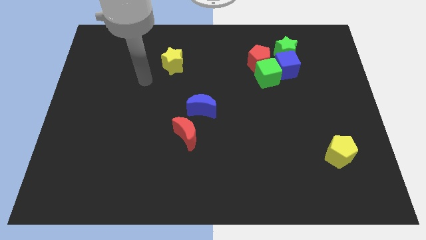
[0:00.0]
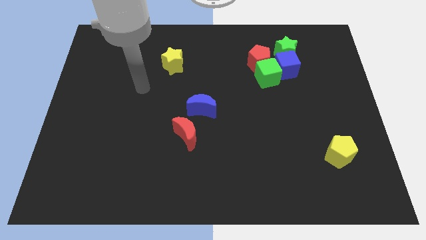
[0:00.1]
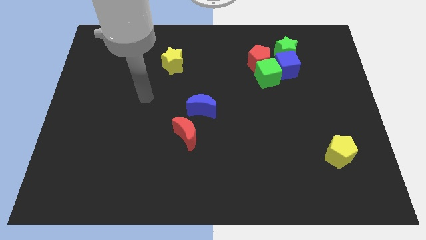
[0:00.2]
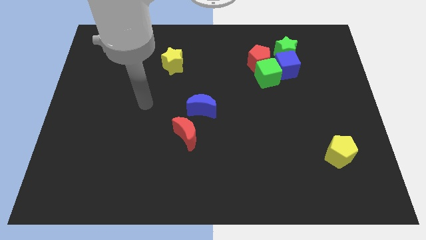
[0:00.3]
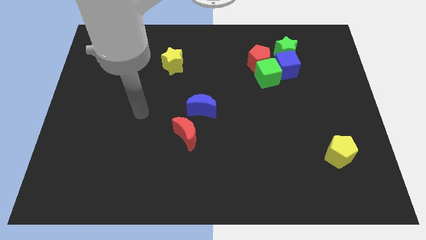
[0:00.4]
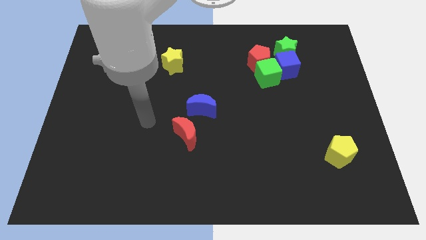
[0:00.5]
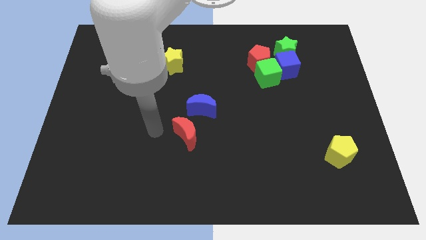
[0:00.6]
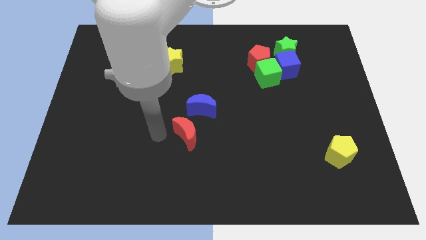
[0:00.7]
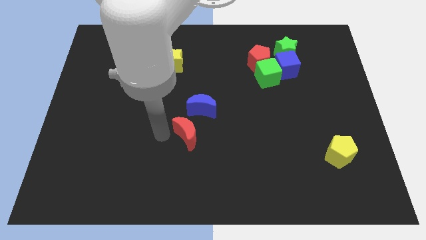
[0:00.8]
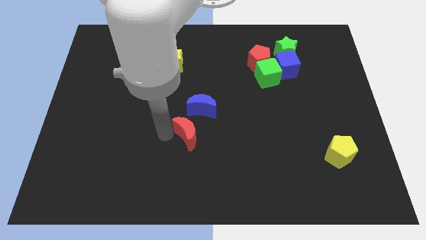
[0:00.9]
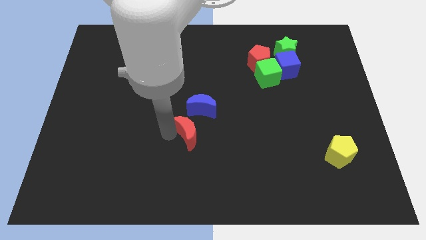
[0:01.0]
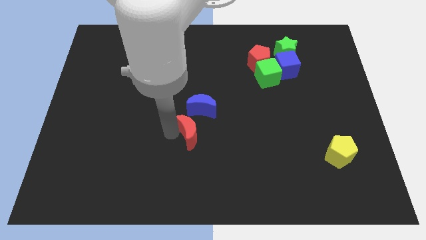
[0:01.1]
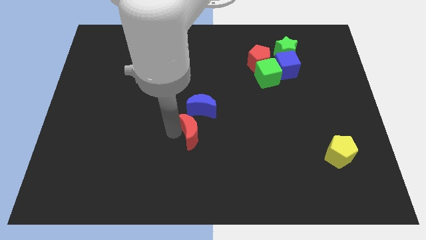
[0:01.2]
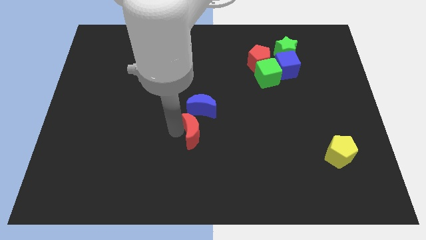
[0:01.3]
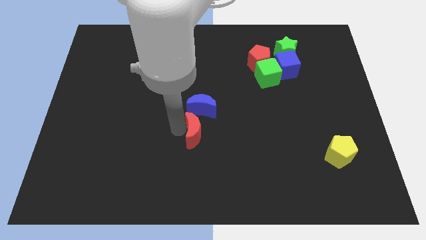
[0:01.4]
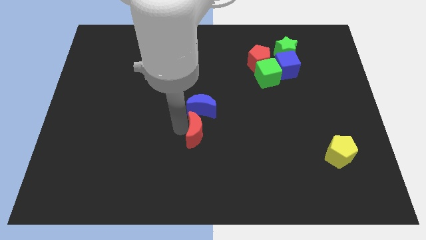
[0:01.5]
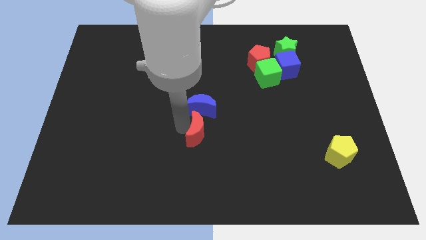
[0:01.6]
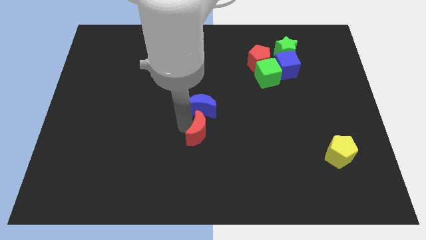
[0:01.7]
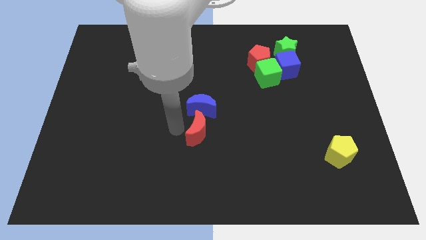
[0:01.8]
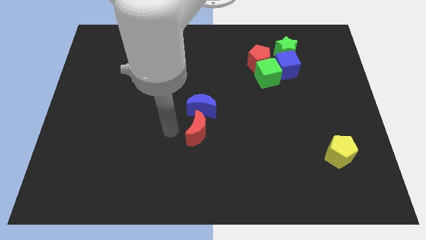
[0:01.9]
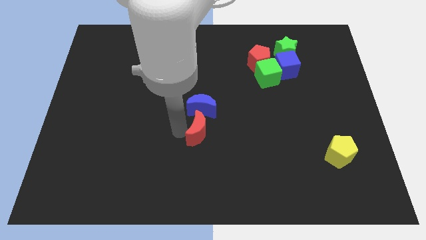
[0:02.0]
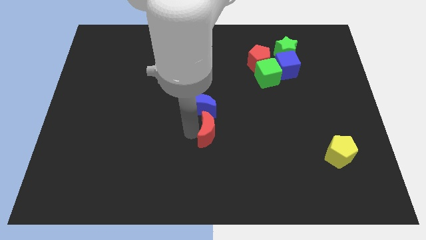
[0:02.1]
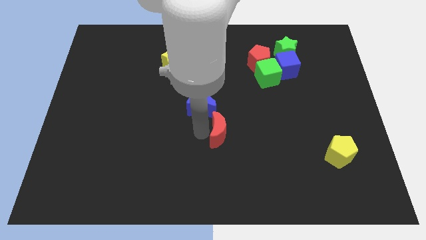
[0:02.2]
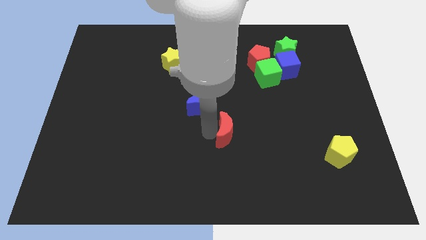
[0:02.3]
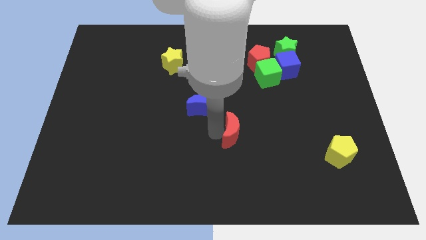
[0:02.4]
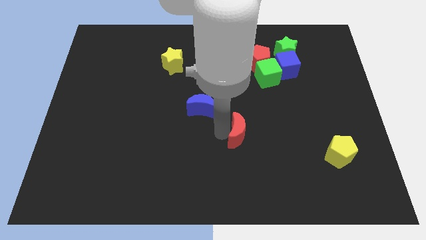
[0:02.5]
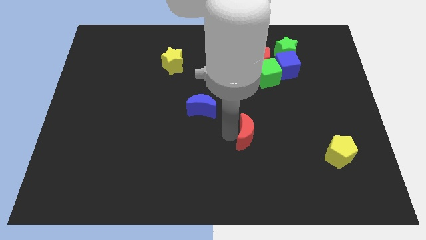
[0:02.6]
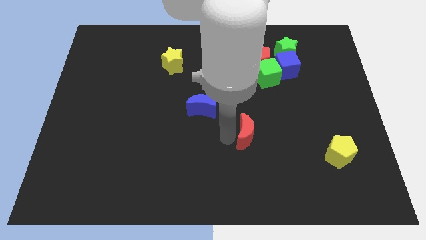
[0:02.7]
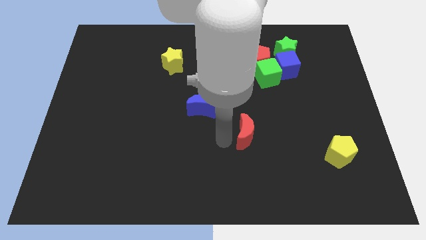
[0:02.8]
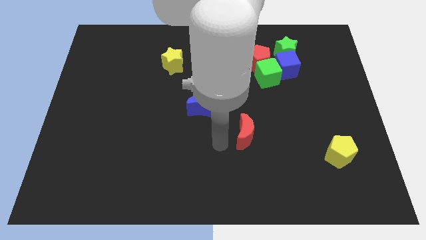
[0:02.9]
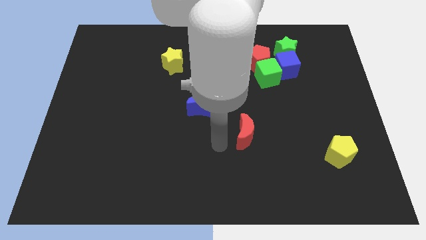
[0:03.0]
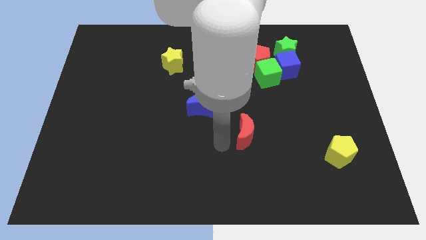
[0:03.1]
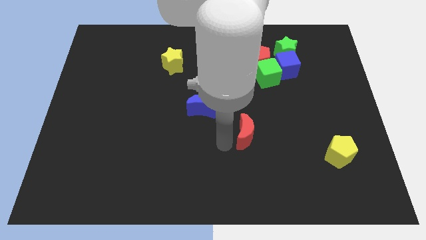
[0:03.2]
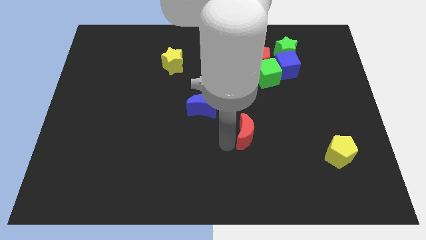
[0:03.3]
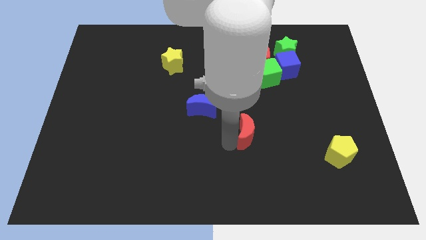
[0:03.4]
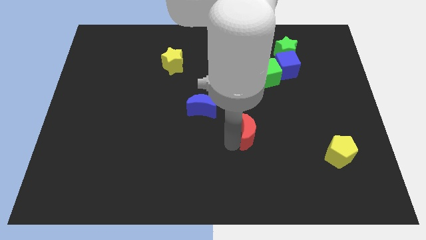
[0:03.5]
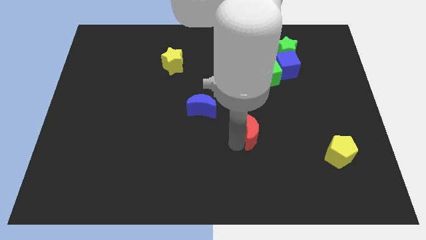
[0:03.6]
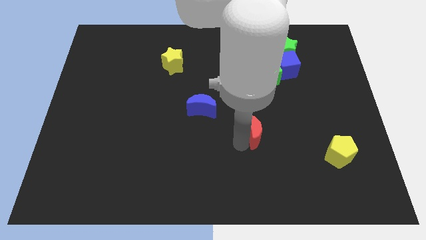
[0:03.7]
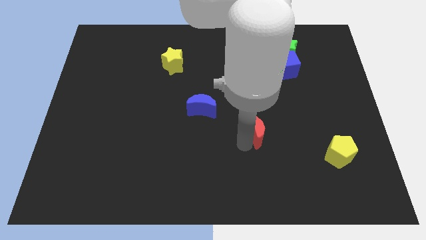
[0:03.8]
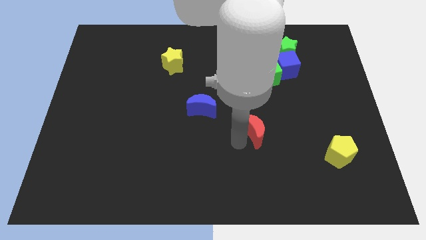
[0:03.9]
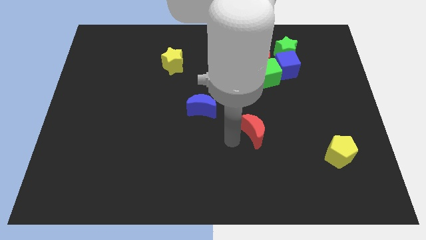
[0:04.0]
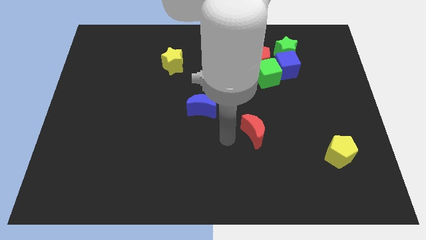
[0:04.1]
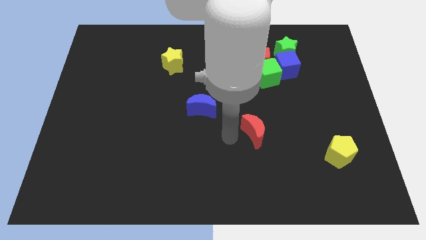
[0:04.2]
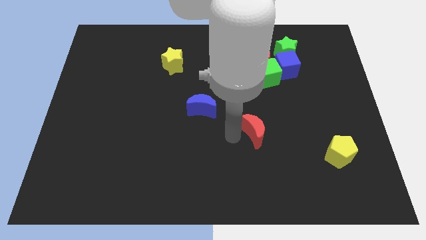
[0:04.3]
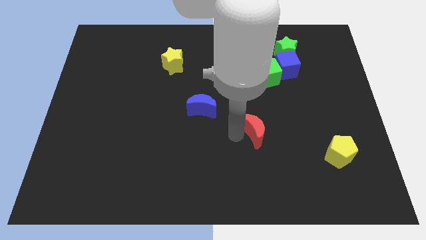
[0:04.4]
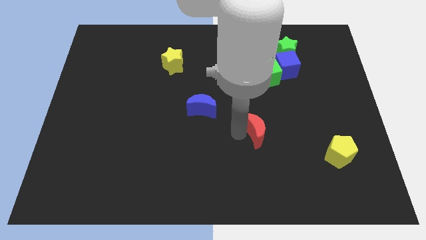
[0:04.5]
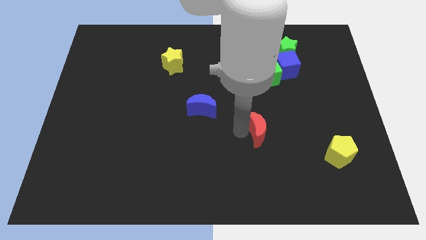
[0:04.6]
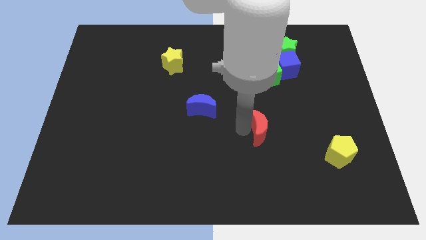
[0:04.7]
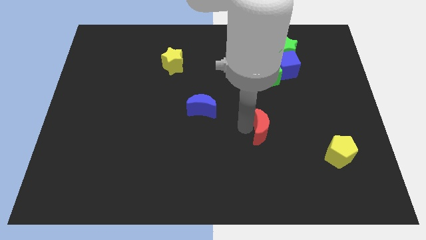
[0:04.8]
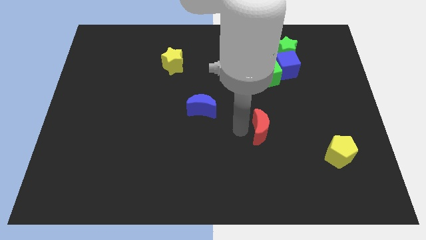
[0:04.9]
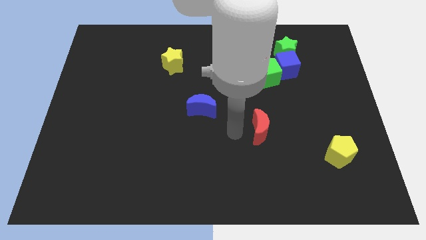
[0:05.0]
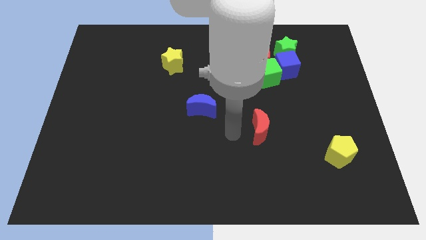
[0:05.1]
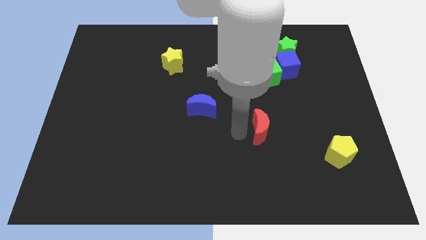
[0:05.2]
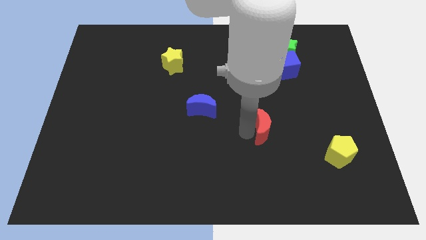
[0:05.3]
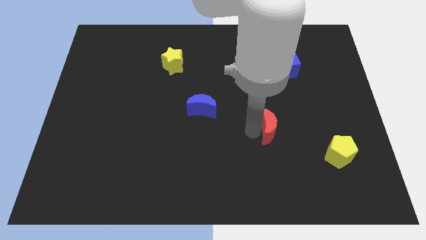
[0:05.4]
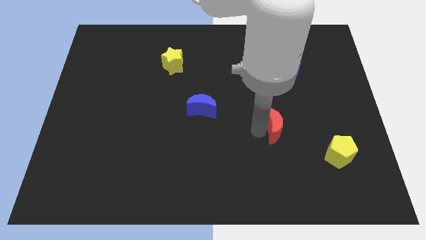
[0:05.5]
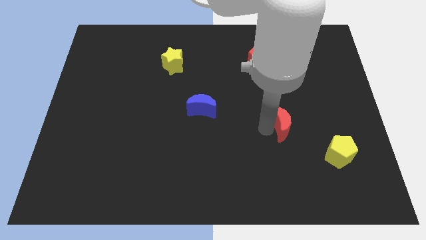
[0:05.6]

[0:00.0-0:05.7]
slide the red moon to the right

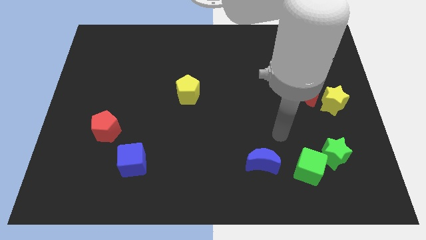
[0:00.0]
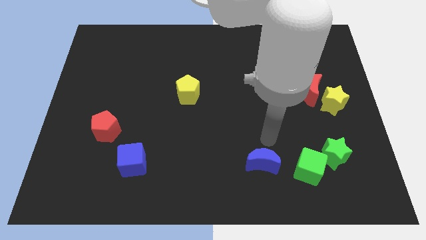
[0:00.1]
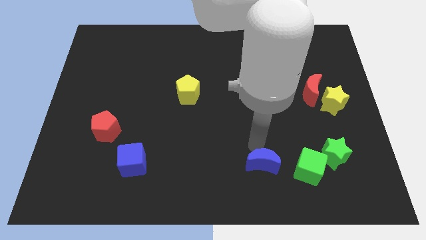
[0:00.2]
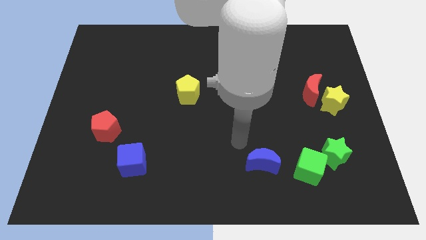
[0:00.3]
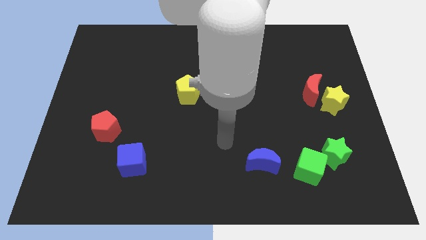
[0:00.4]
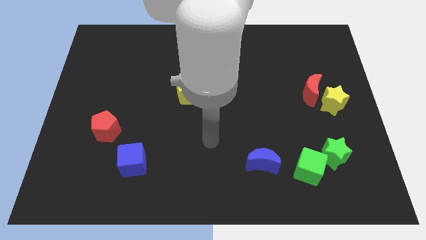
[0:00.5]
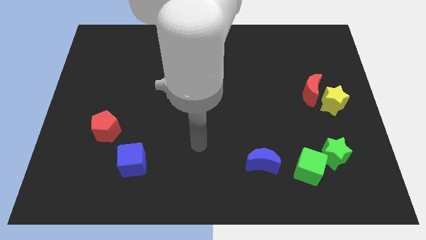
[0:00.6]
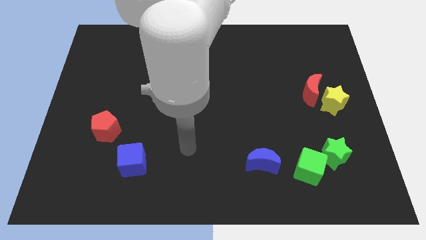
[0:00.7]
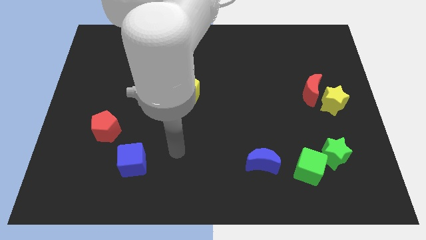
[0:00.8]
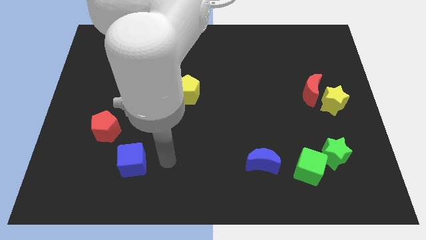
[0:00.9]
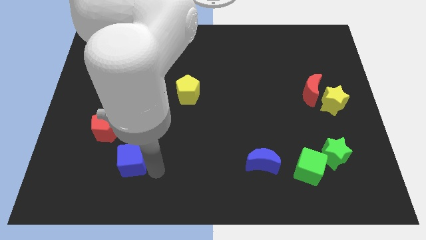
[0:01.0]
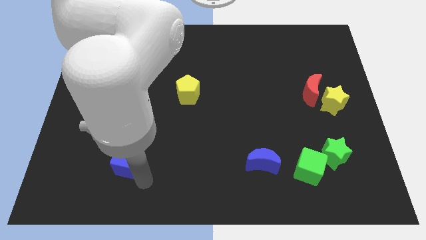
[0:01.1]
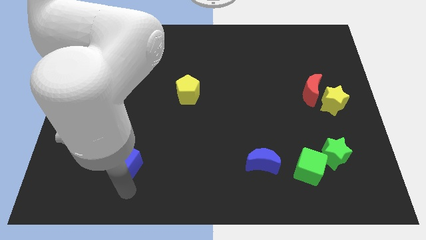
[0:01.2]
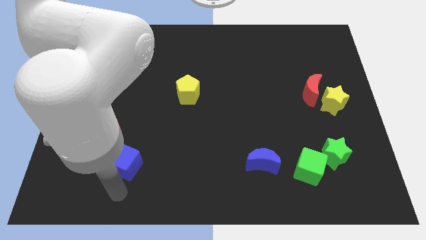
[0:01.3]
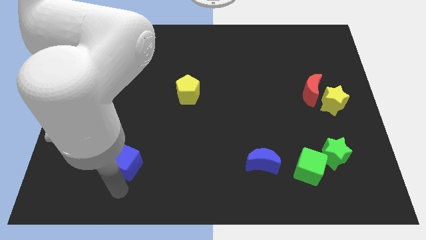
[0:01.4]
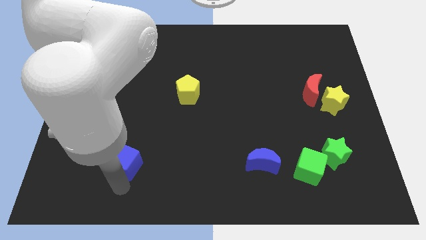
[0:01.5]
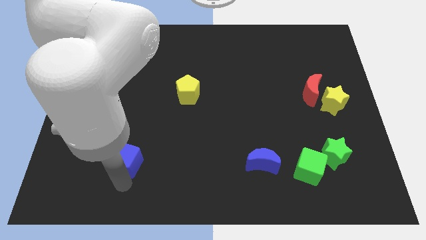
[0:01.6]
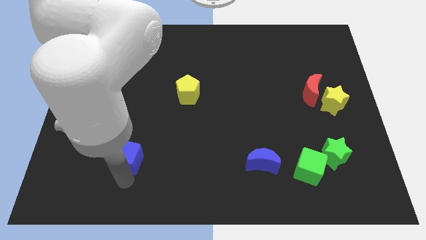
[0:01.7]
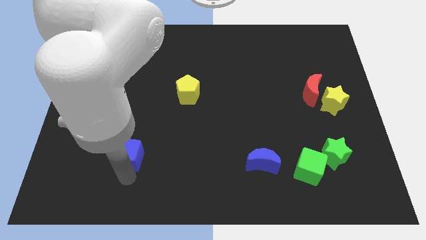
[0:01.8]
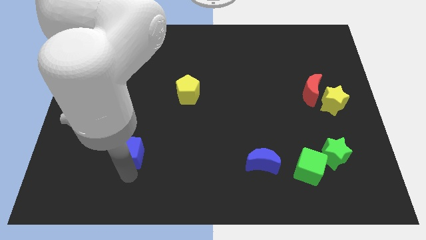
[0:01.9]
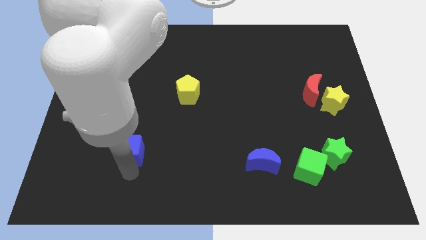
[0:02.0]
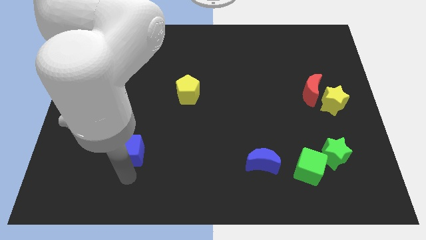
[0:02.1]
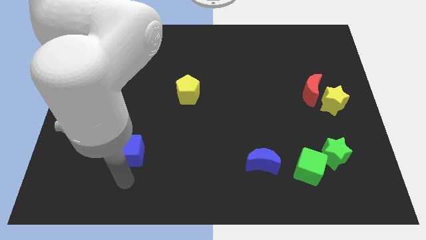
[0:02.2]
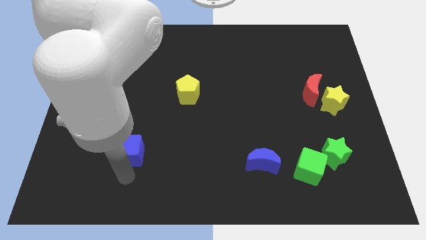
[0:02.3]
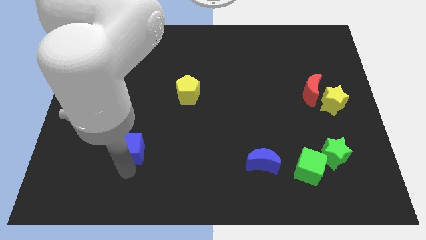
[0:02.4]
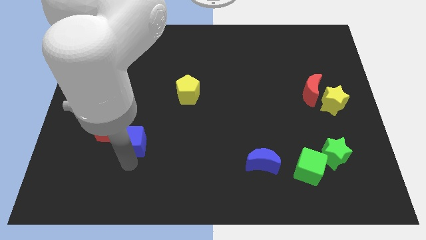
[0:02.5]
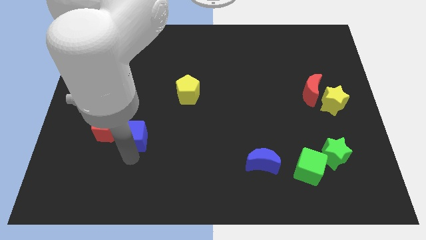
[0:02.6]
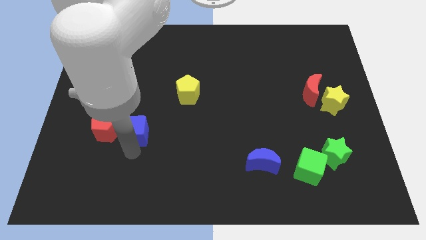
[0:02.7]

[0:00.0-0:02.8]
slide the blue cube up a little
